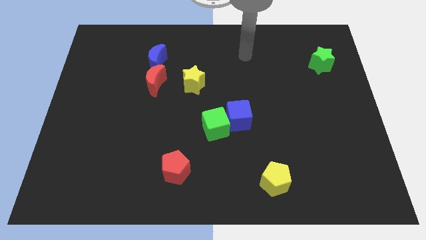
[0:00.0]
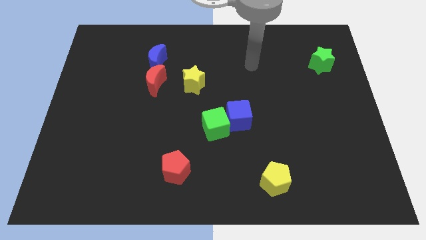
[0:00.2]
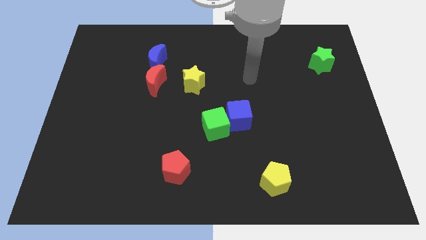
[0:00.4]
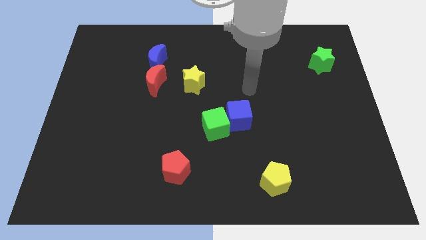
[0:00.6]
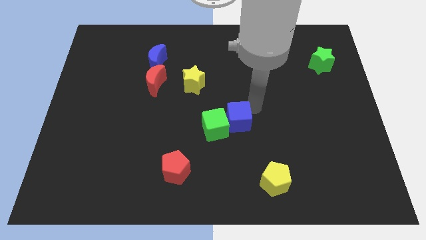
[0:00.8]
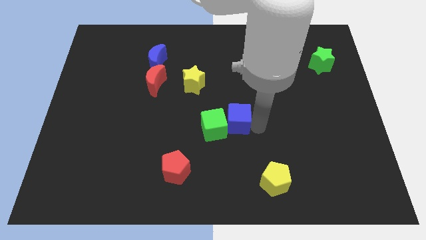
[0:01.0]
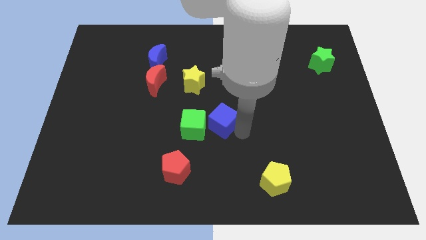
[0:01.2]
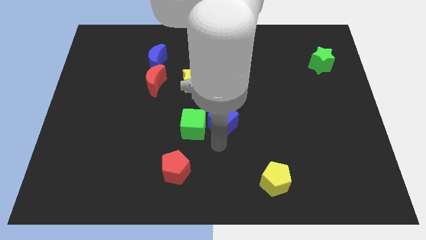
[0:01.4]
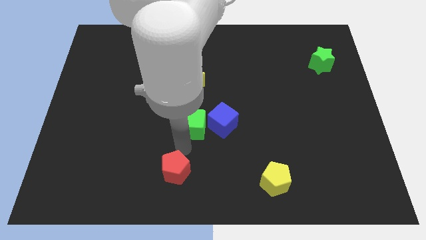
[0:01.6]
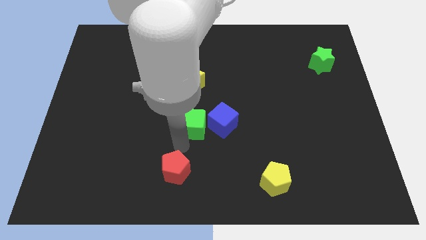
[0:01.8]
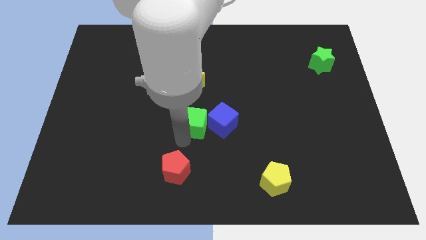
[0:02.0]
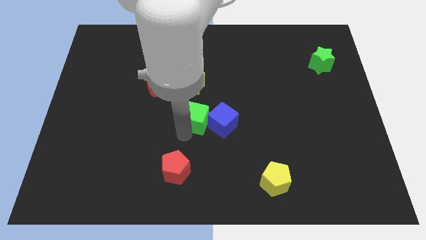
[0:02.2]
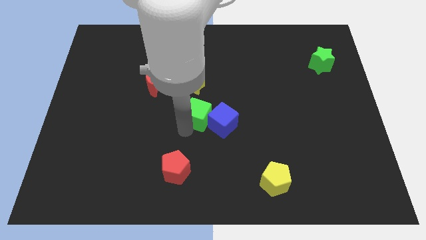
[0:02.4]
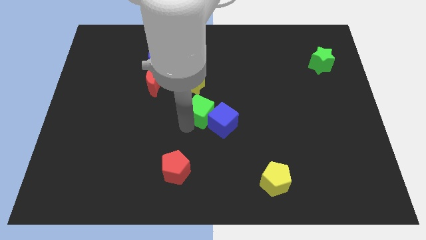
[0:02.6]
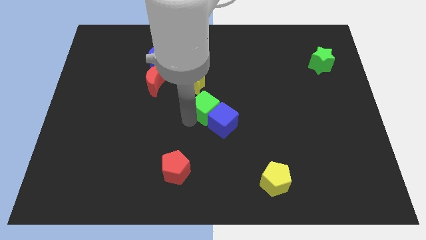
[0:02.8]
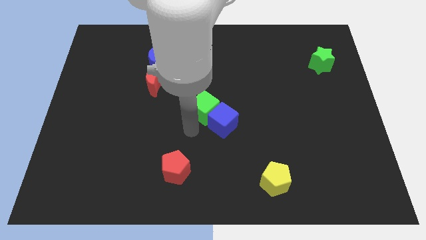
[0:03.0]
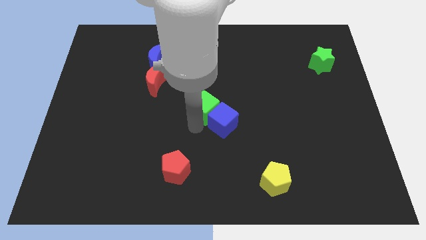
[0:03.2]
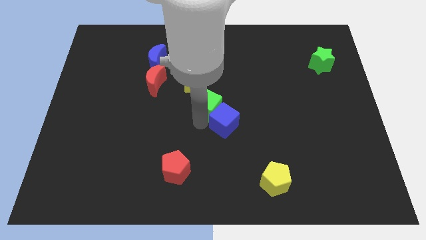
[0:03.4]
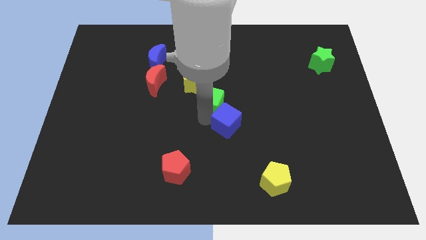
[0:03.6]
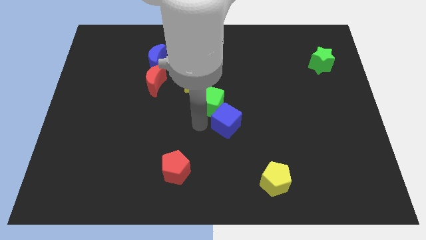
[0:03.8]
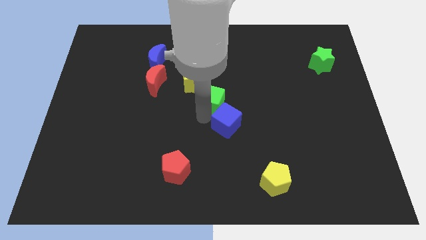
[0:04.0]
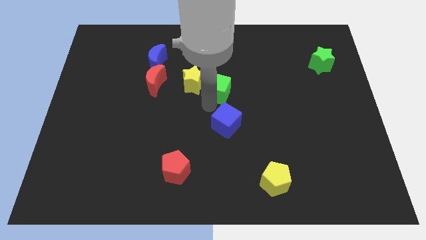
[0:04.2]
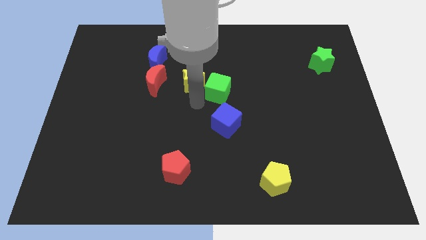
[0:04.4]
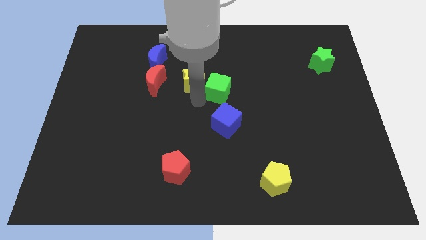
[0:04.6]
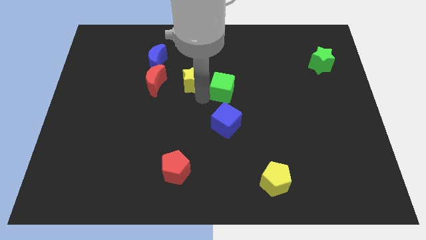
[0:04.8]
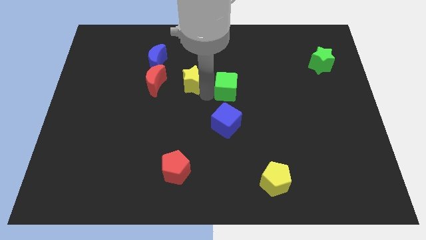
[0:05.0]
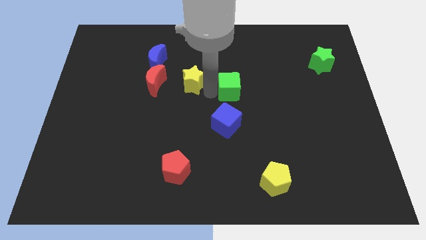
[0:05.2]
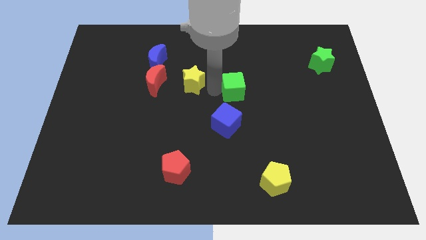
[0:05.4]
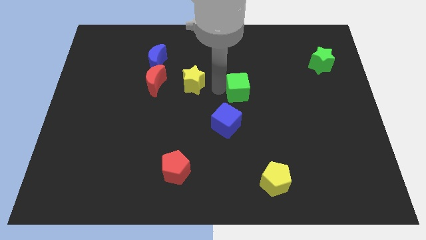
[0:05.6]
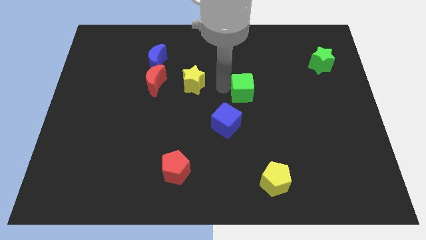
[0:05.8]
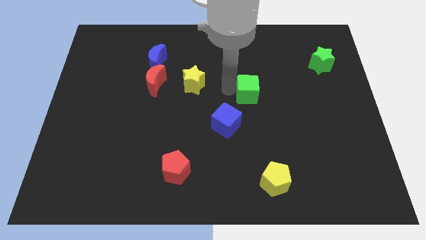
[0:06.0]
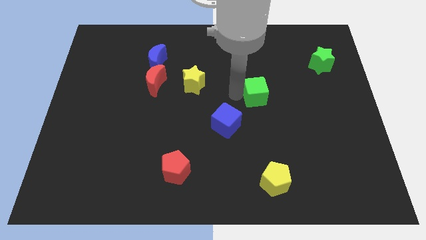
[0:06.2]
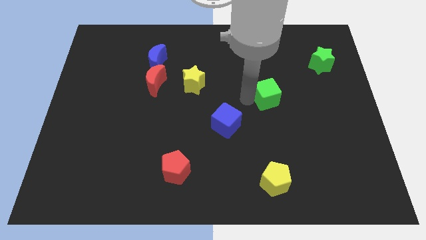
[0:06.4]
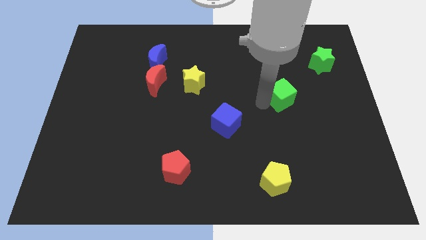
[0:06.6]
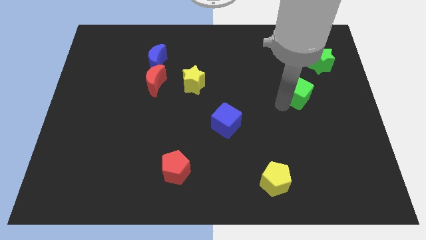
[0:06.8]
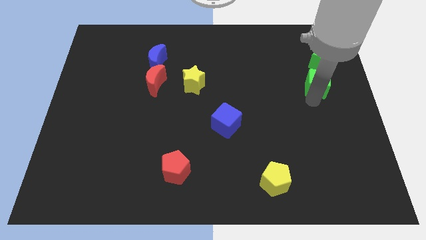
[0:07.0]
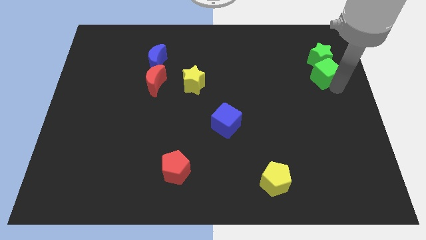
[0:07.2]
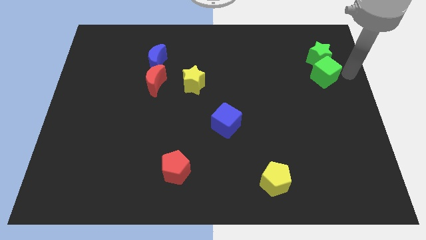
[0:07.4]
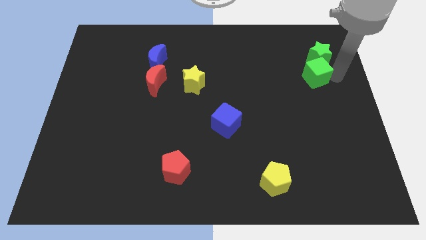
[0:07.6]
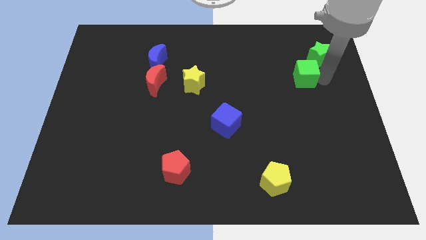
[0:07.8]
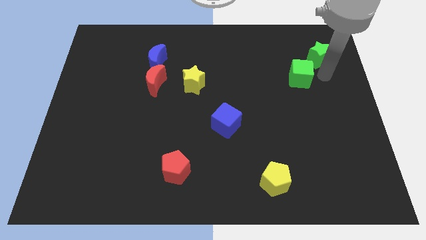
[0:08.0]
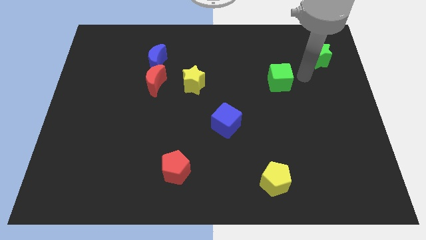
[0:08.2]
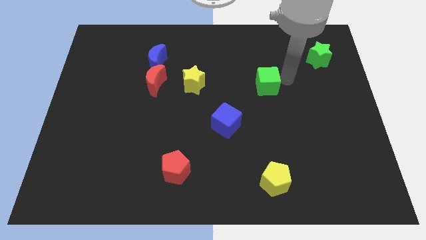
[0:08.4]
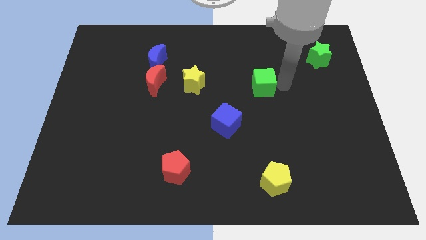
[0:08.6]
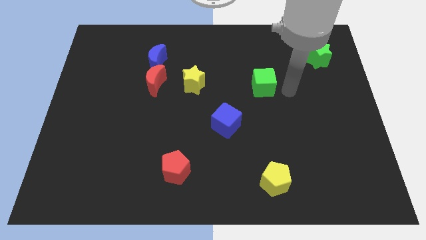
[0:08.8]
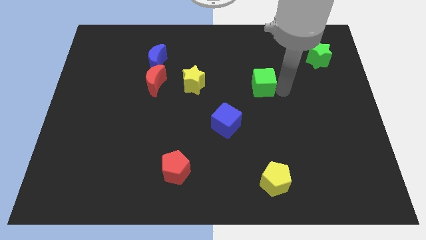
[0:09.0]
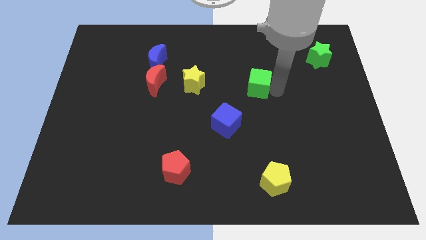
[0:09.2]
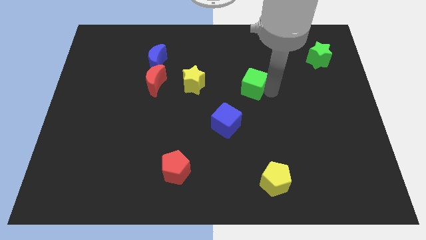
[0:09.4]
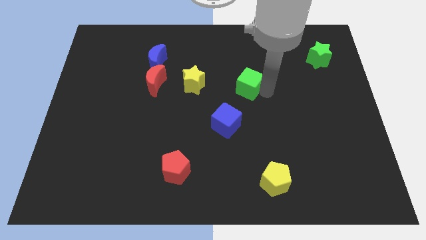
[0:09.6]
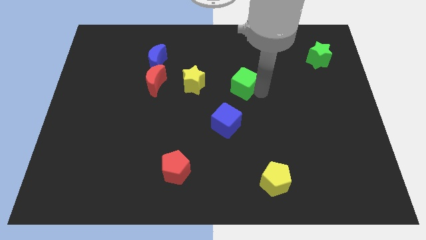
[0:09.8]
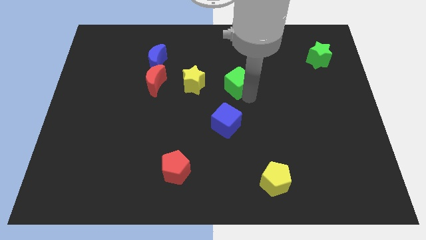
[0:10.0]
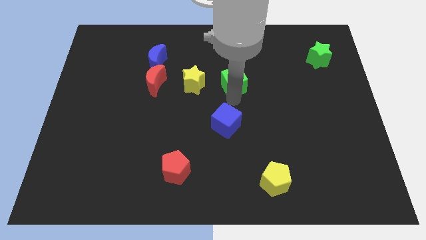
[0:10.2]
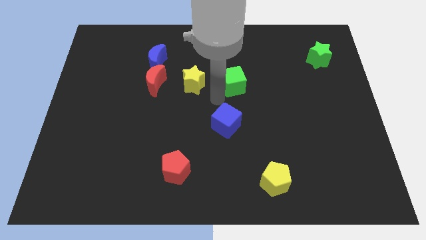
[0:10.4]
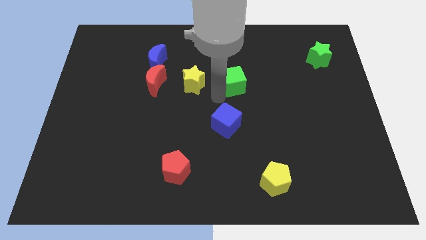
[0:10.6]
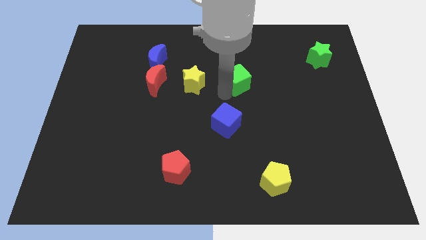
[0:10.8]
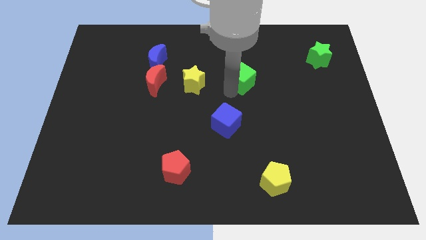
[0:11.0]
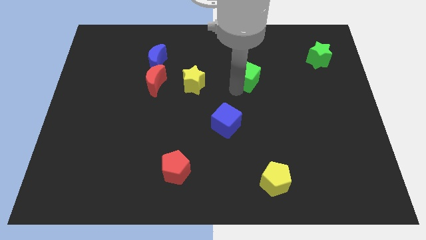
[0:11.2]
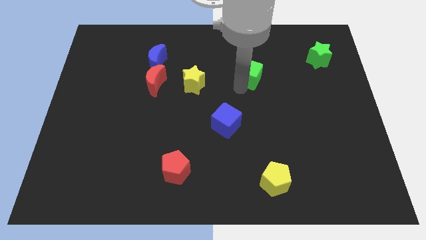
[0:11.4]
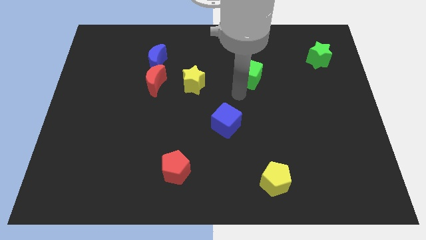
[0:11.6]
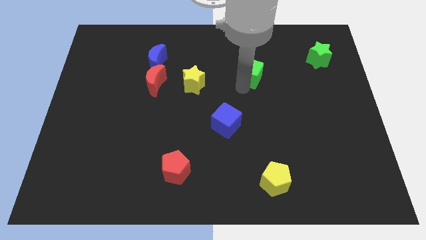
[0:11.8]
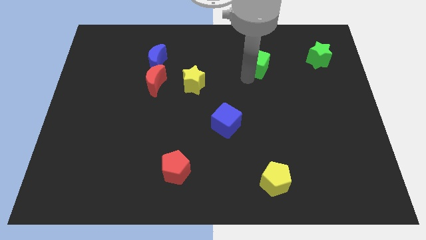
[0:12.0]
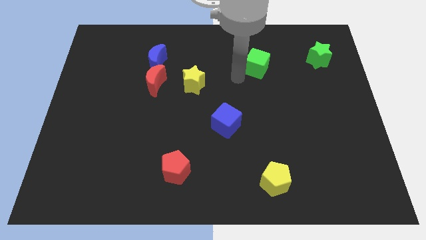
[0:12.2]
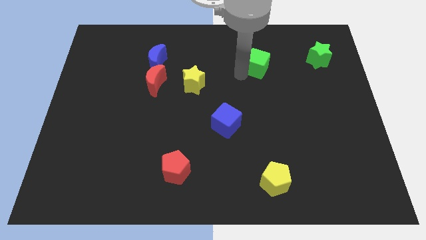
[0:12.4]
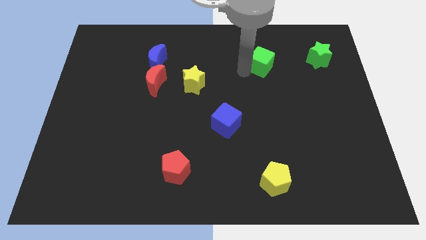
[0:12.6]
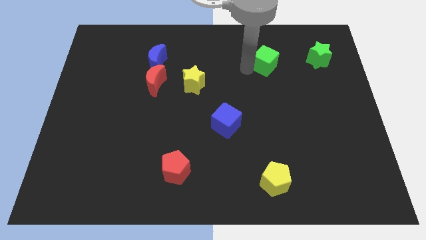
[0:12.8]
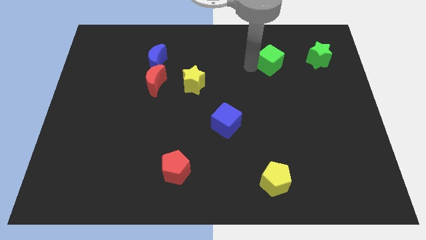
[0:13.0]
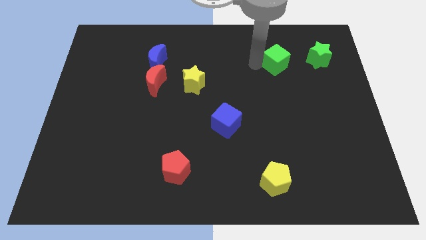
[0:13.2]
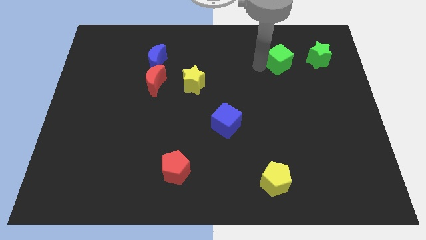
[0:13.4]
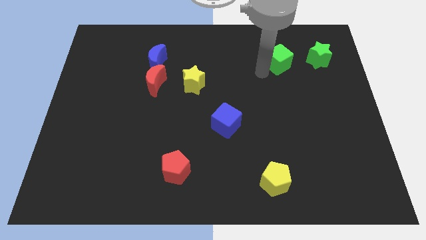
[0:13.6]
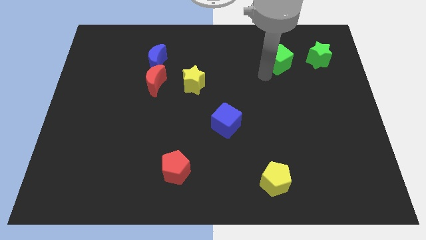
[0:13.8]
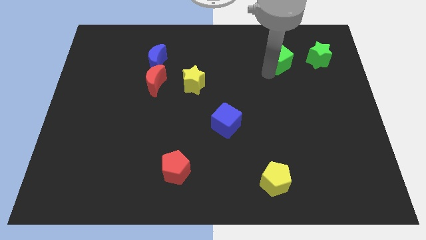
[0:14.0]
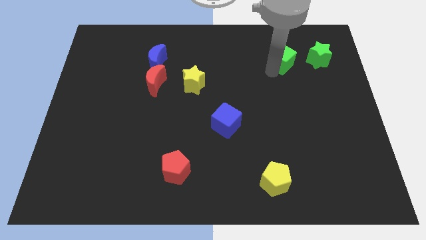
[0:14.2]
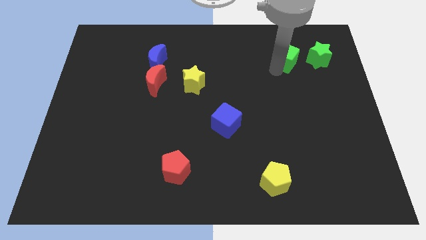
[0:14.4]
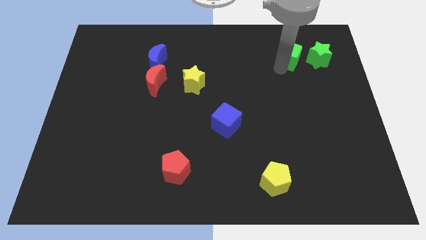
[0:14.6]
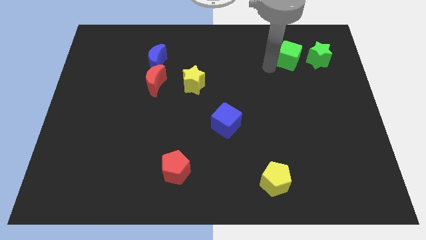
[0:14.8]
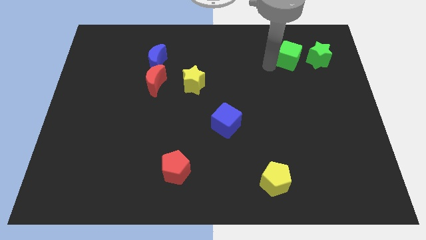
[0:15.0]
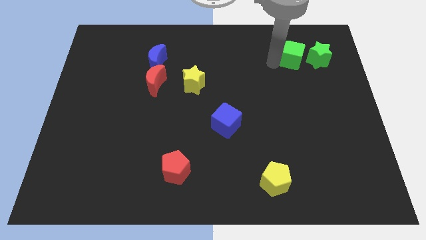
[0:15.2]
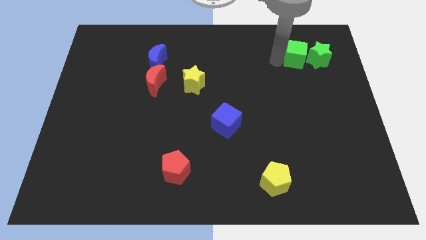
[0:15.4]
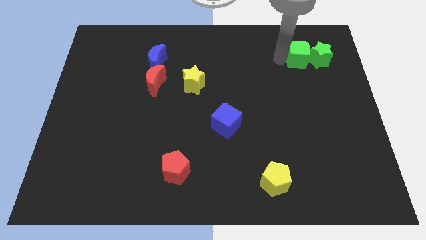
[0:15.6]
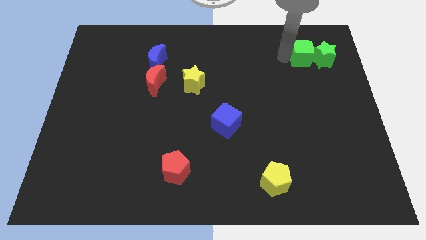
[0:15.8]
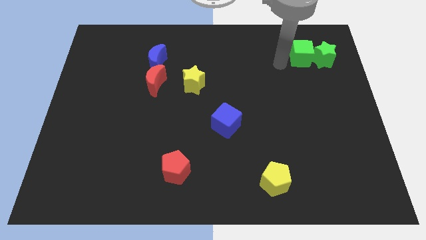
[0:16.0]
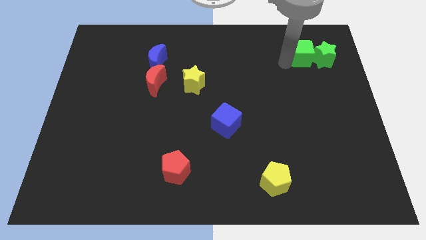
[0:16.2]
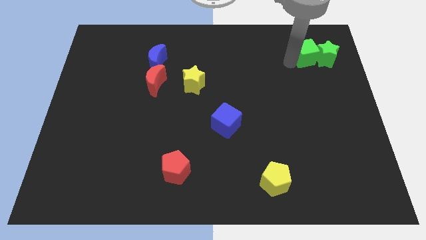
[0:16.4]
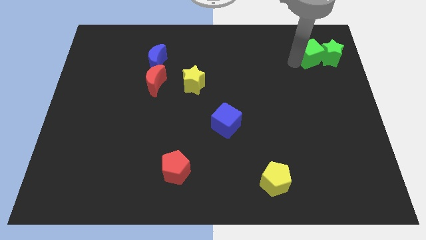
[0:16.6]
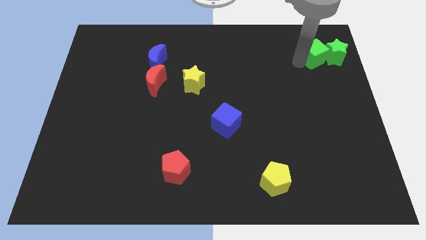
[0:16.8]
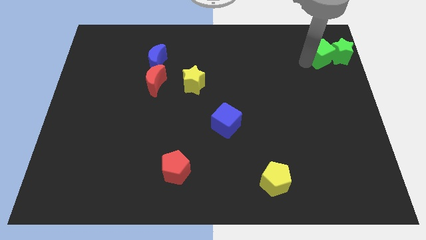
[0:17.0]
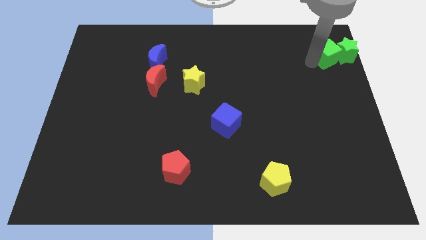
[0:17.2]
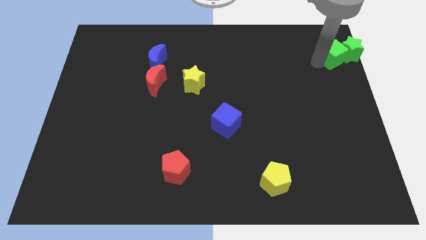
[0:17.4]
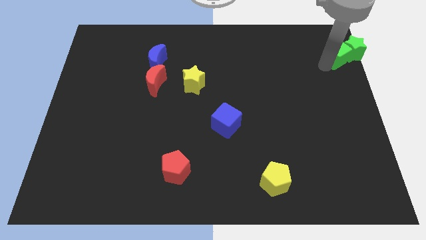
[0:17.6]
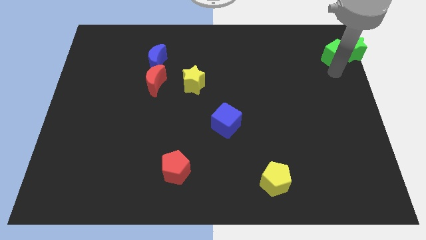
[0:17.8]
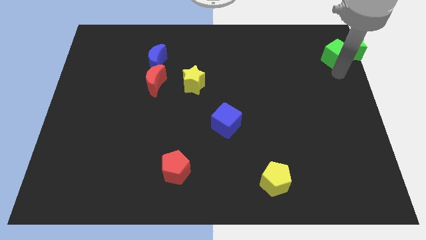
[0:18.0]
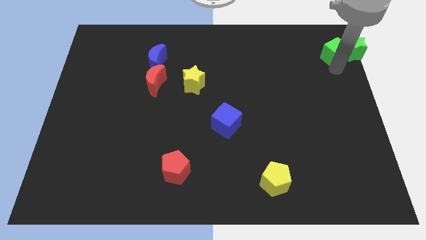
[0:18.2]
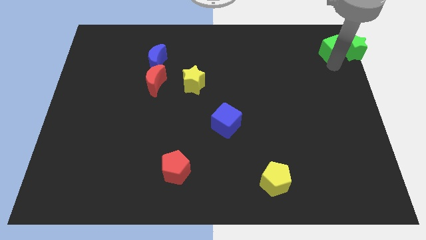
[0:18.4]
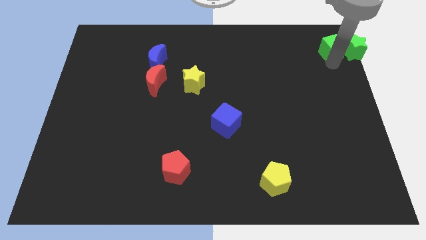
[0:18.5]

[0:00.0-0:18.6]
slide the green cube to the top right corner
